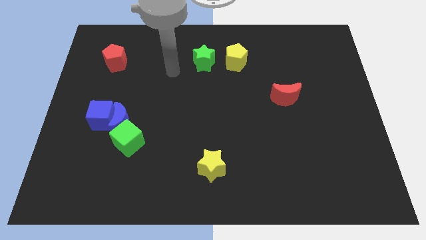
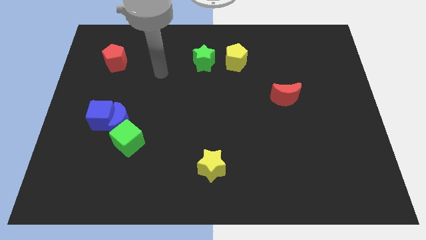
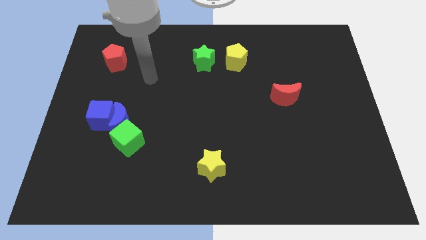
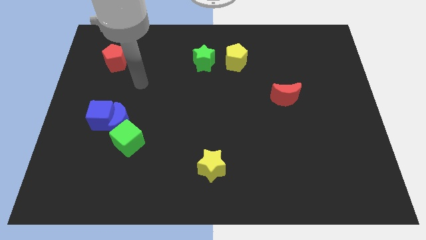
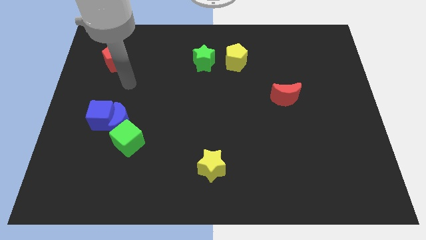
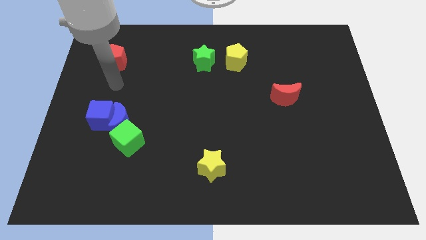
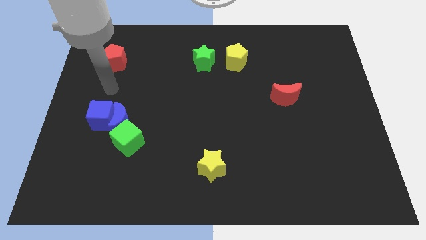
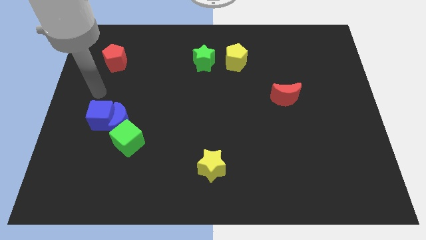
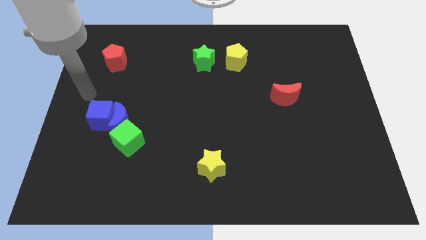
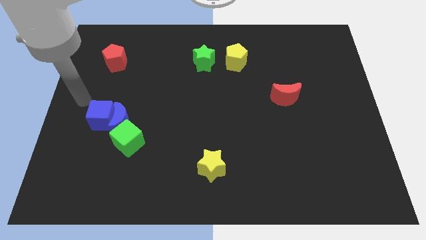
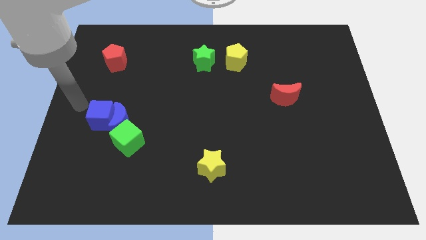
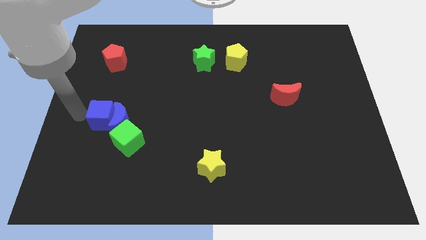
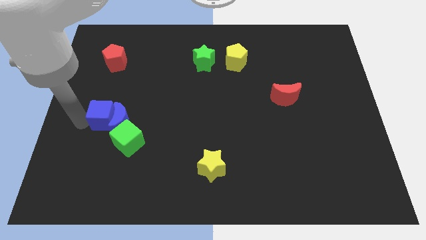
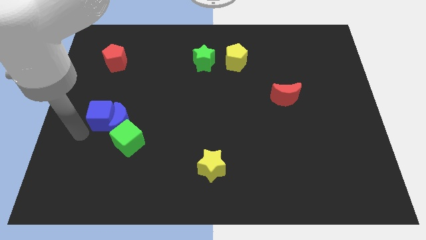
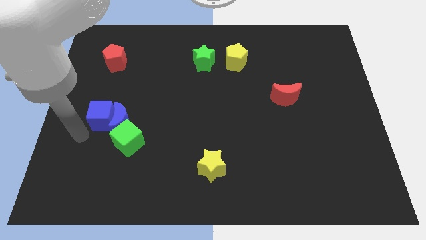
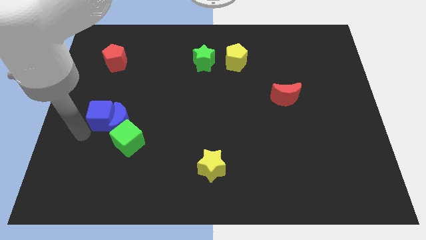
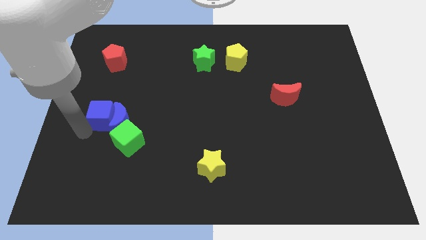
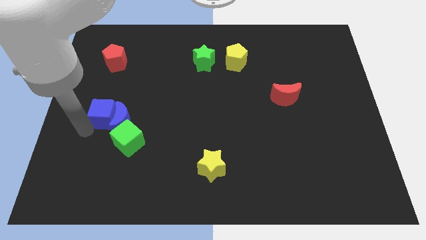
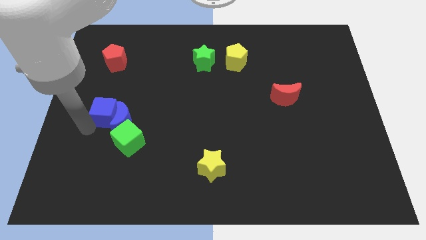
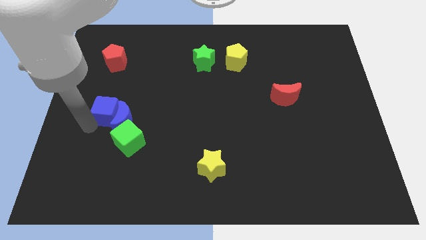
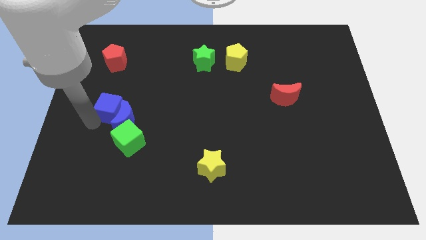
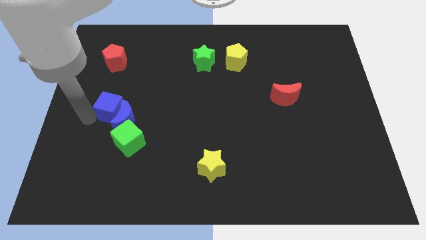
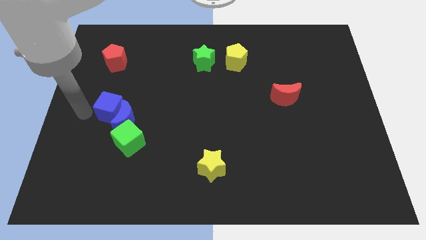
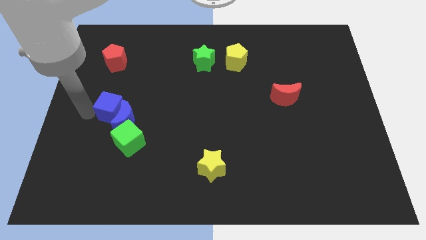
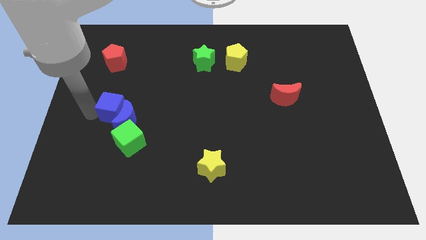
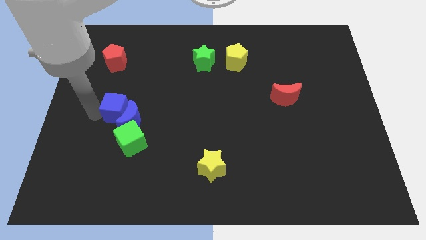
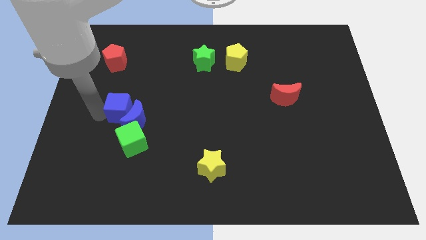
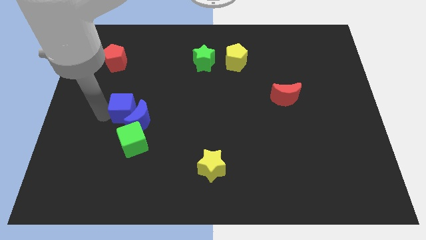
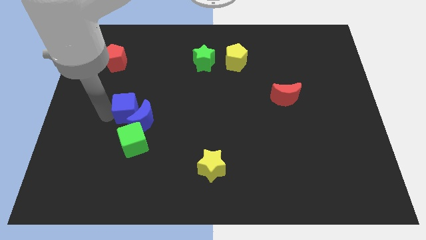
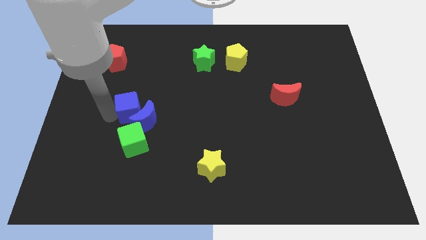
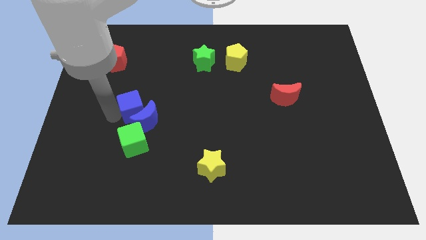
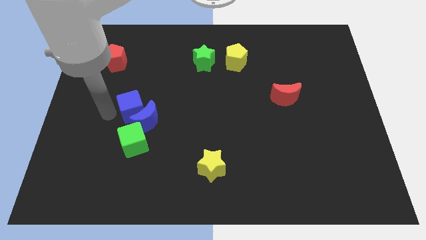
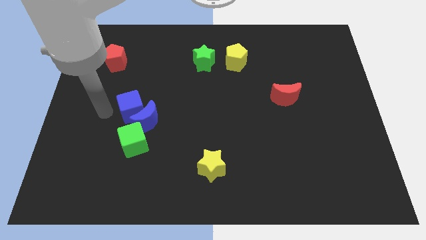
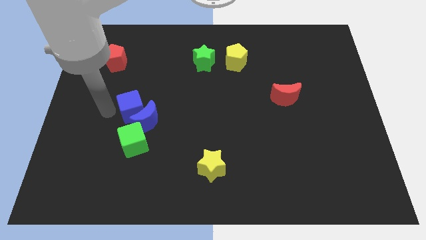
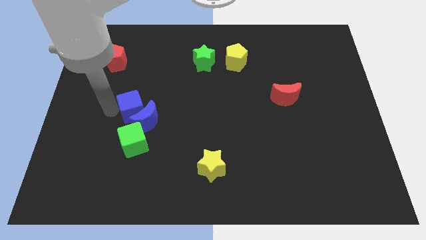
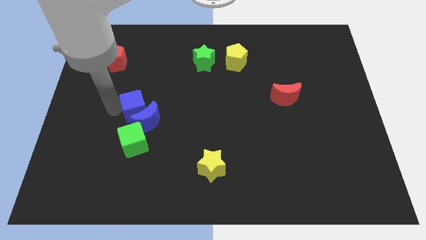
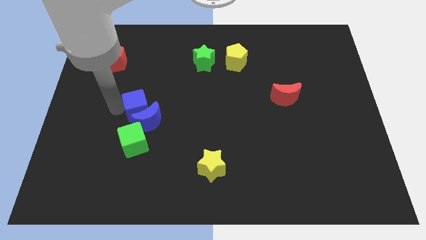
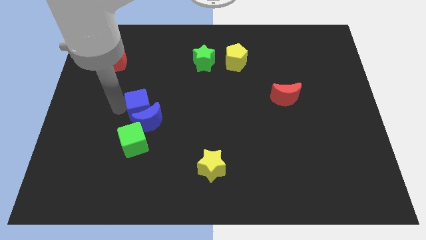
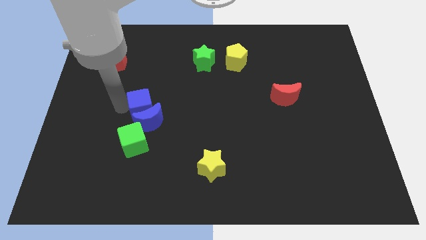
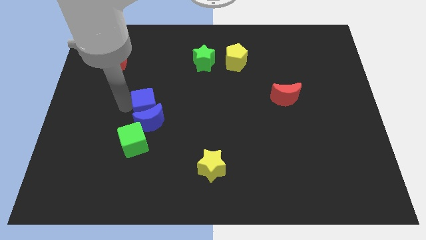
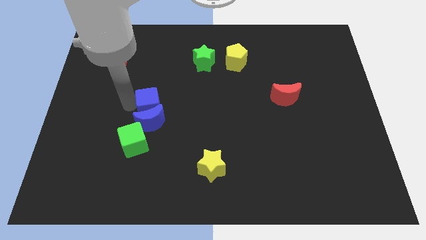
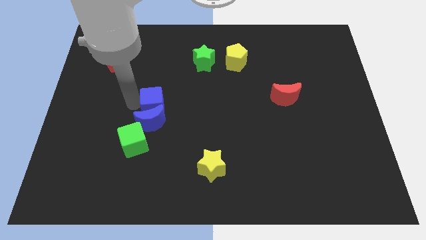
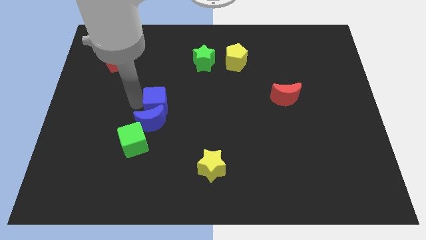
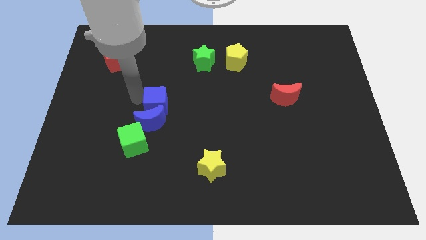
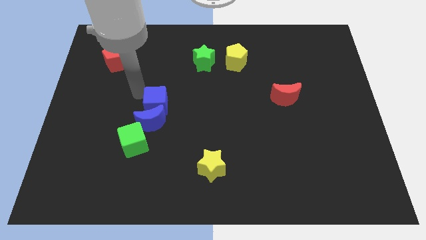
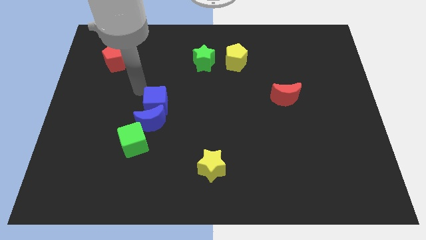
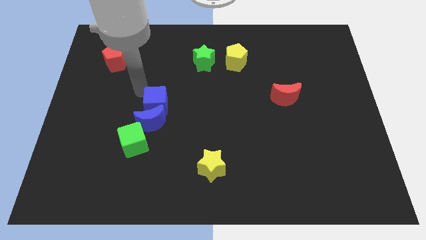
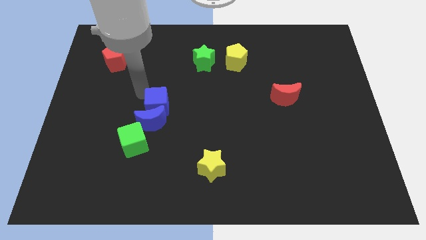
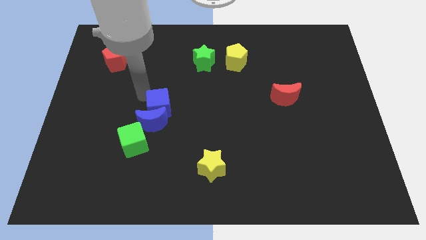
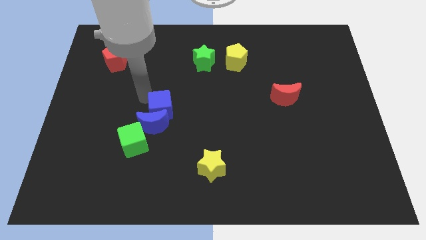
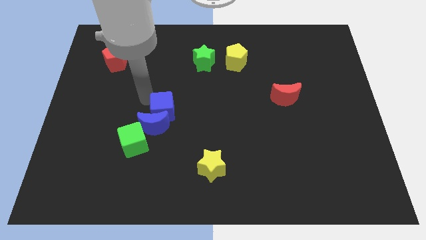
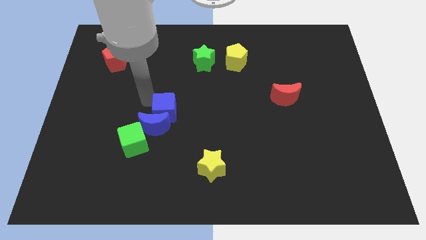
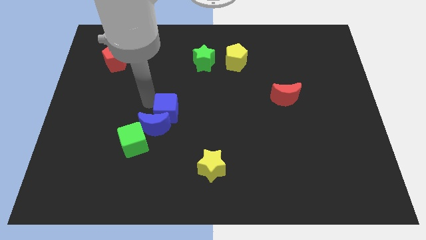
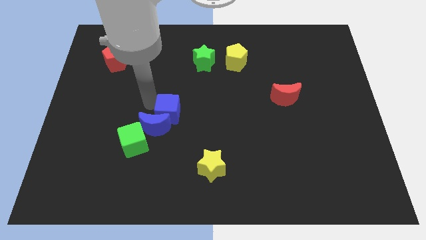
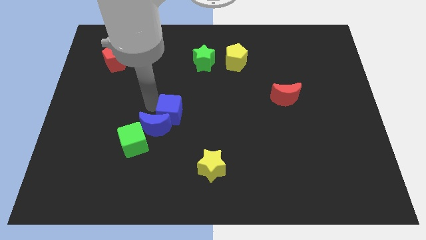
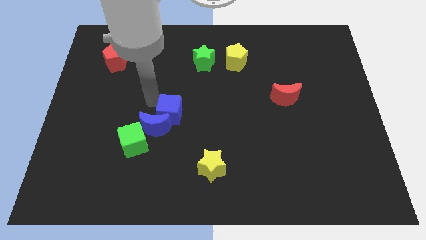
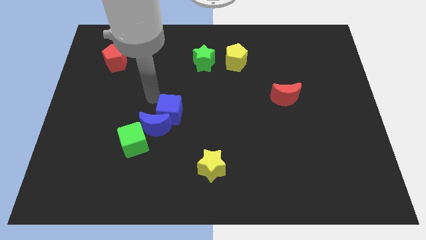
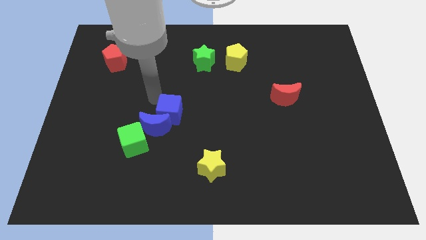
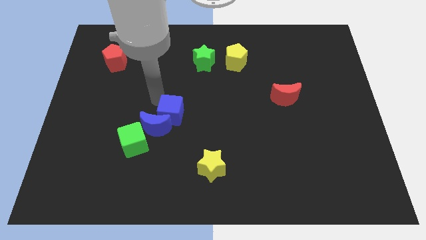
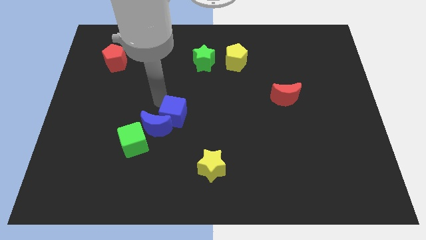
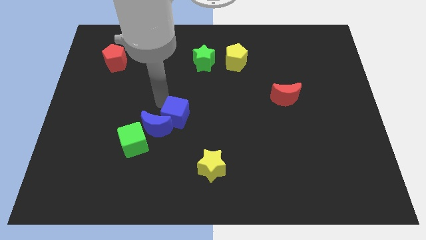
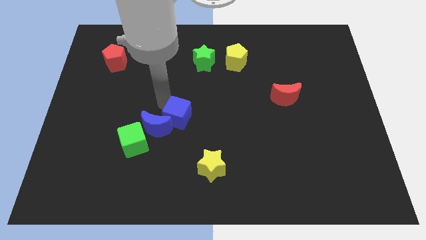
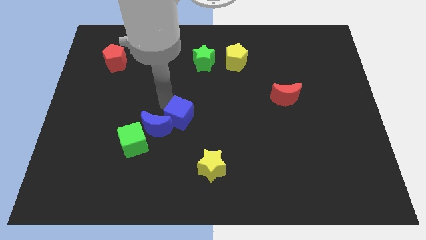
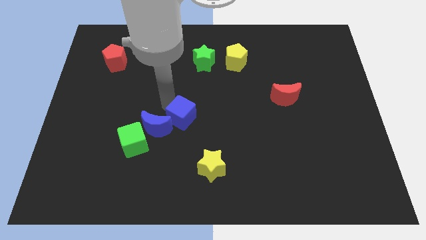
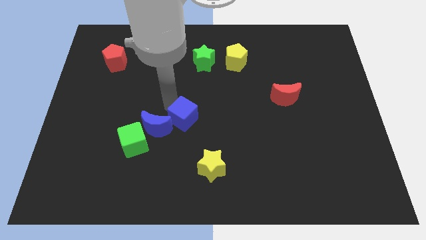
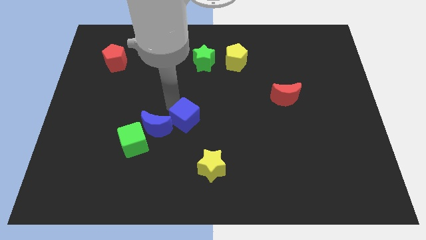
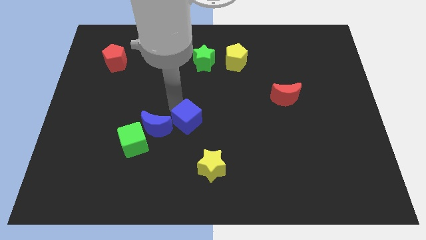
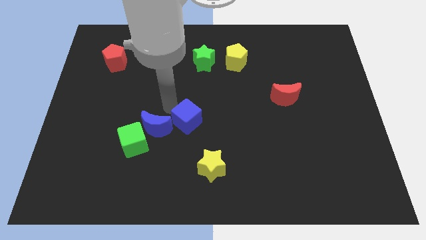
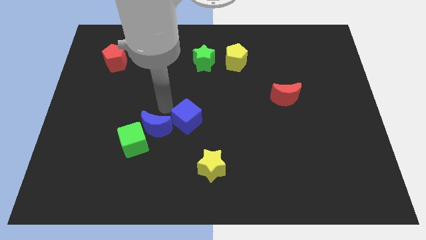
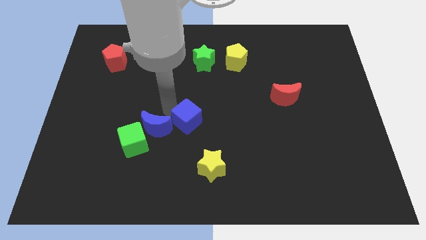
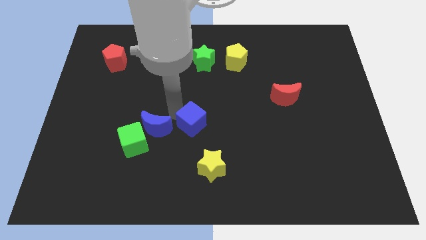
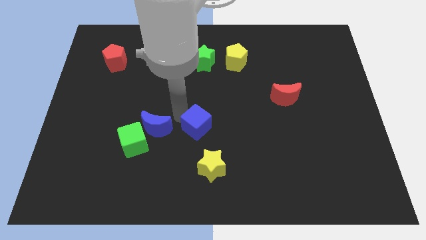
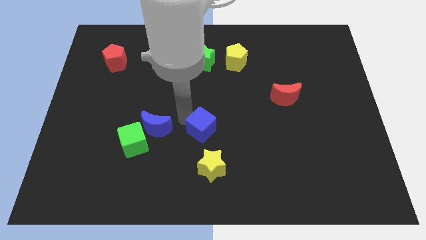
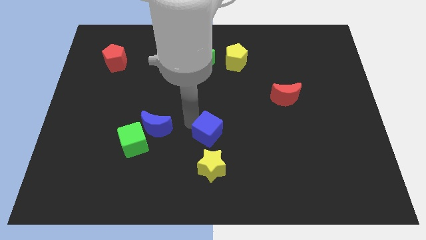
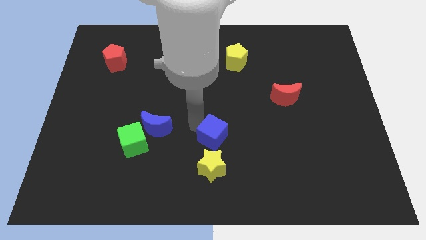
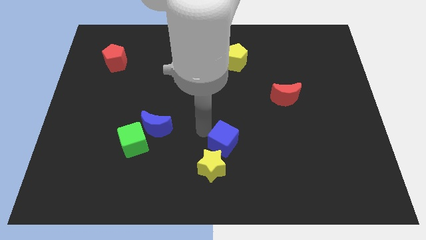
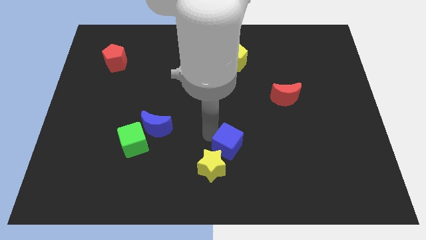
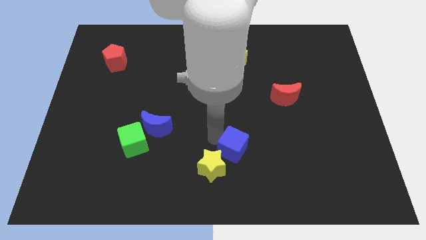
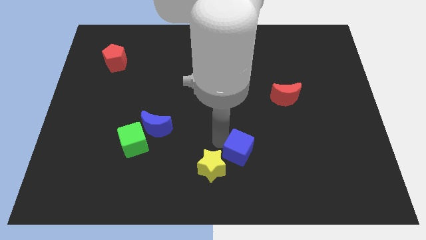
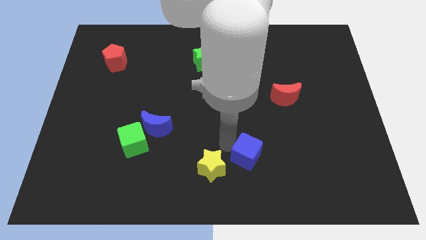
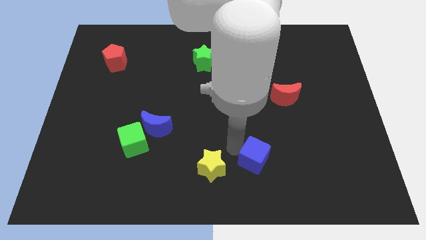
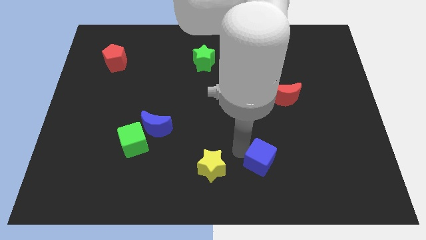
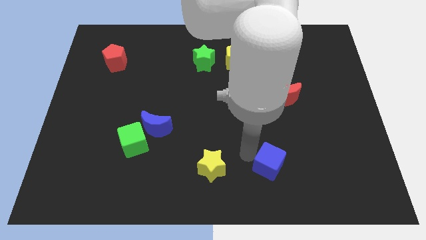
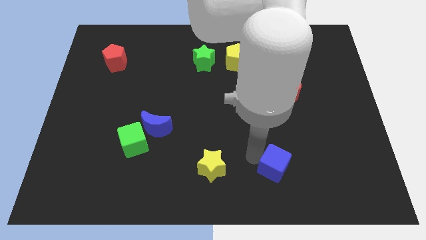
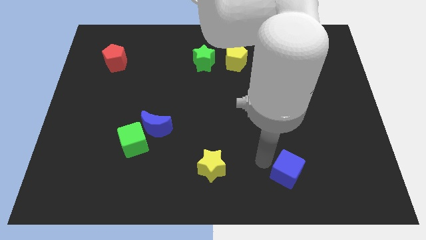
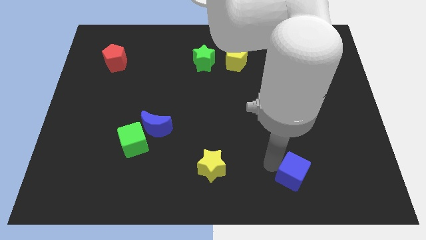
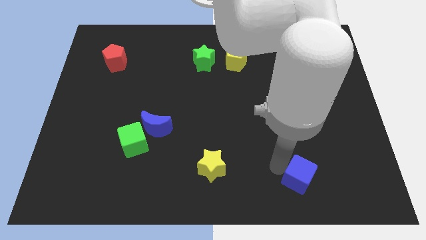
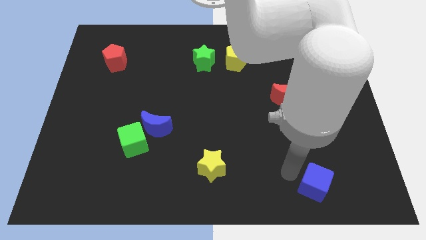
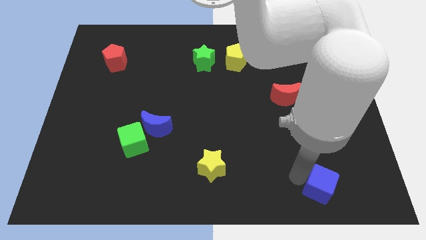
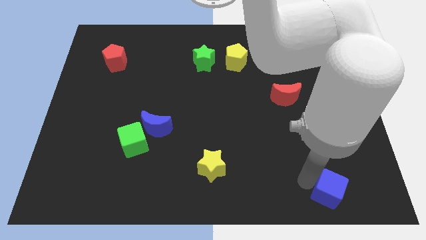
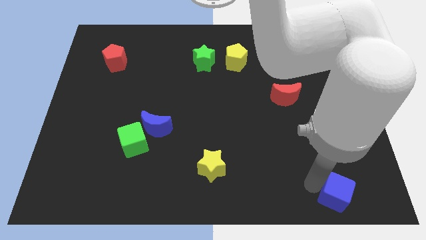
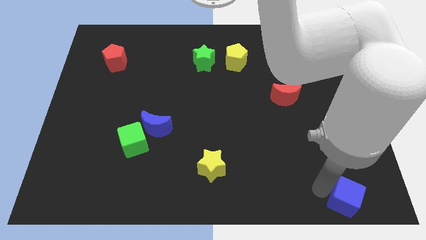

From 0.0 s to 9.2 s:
push the blue cube to the bottom right
